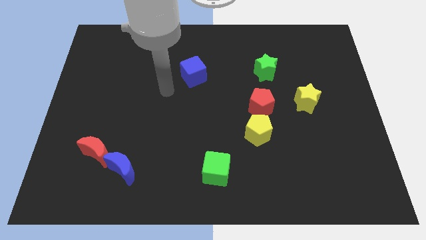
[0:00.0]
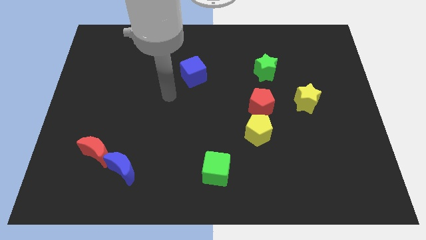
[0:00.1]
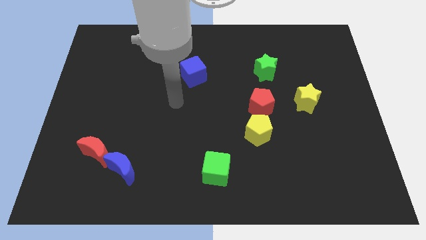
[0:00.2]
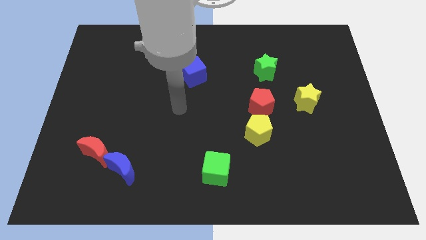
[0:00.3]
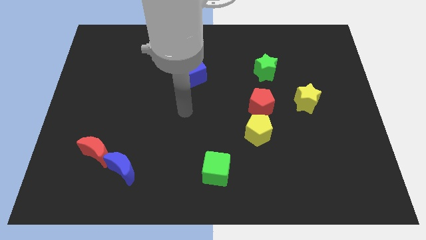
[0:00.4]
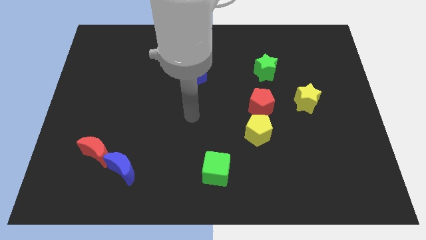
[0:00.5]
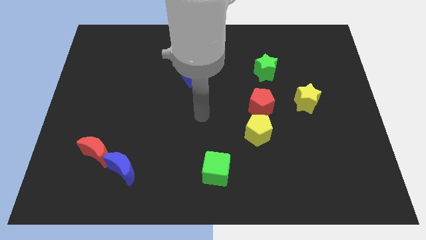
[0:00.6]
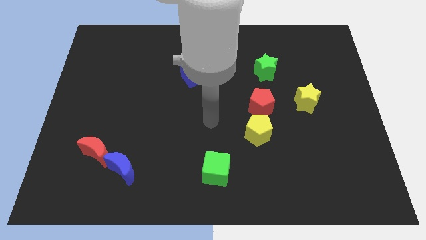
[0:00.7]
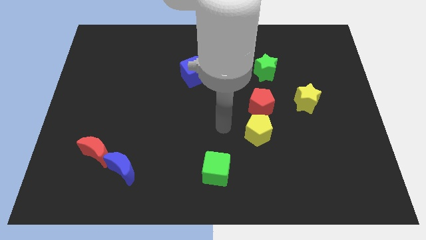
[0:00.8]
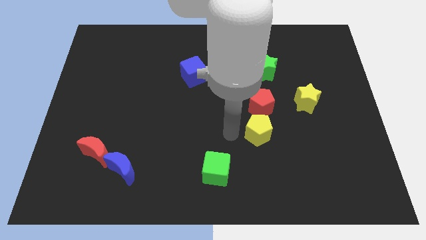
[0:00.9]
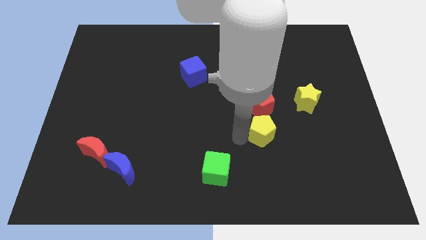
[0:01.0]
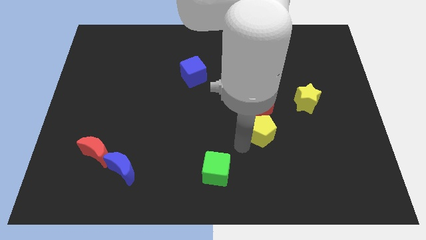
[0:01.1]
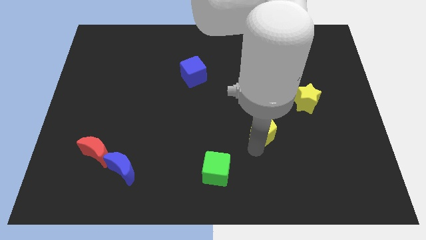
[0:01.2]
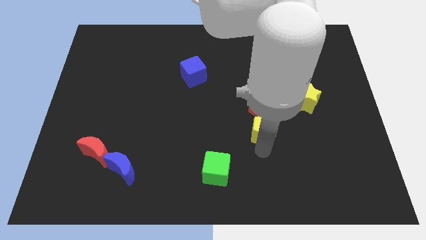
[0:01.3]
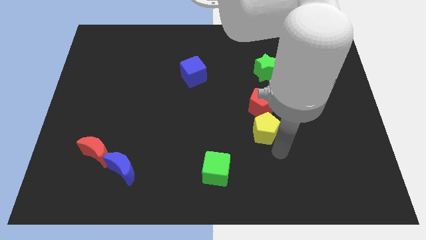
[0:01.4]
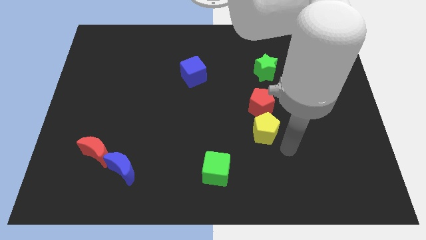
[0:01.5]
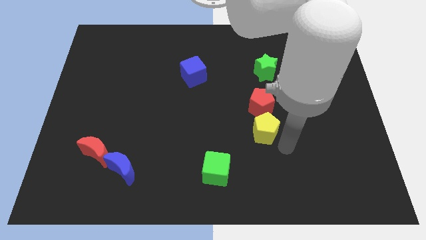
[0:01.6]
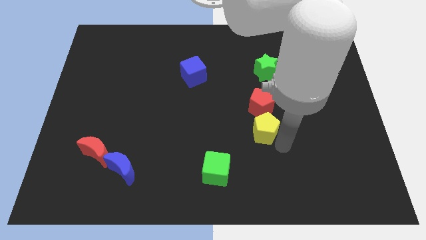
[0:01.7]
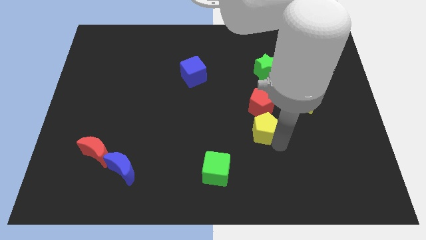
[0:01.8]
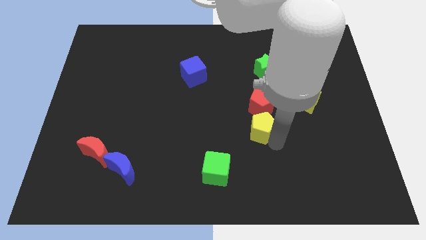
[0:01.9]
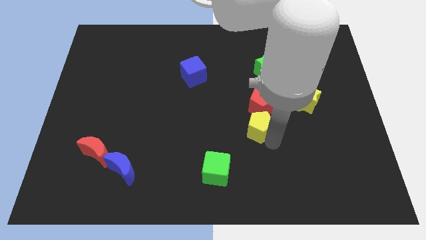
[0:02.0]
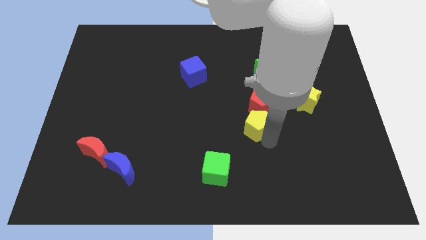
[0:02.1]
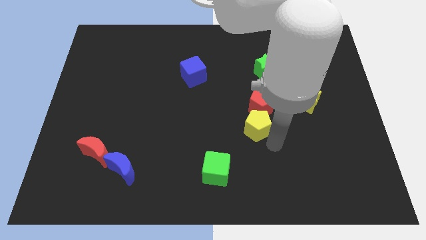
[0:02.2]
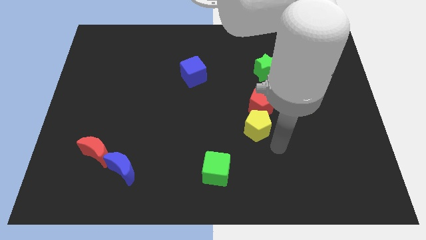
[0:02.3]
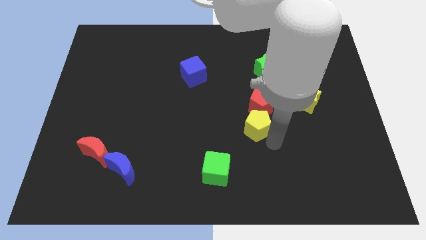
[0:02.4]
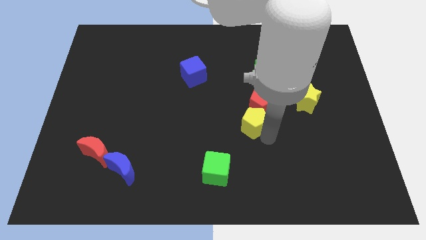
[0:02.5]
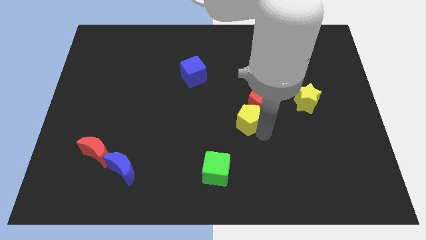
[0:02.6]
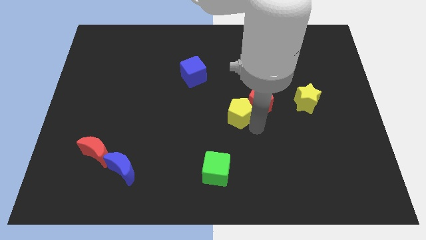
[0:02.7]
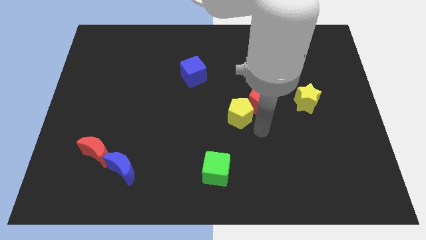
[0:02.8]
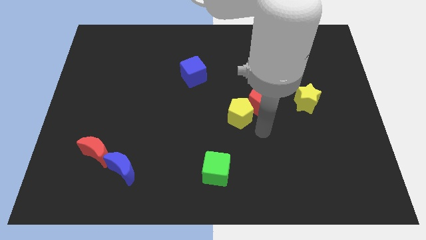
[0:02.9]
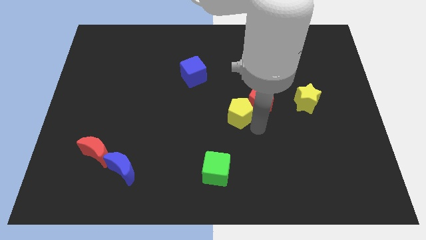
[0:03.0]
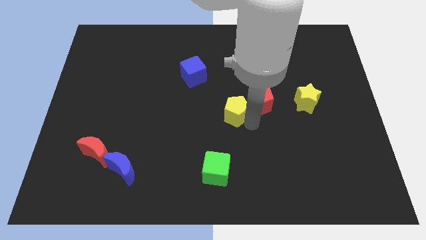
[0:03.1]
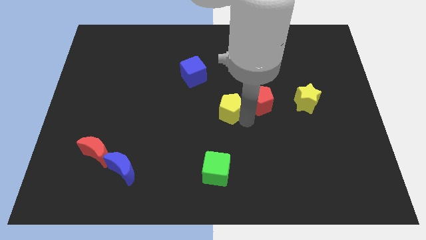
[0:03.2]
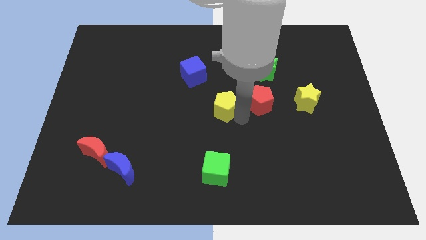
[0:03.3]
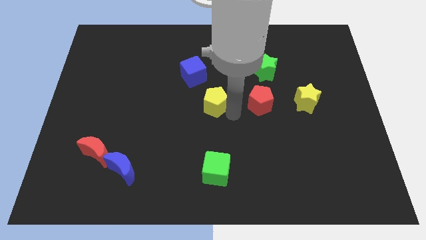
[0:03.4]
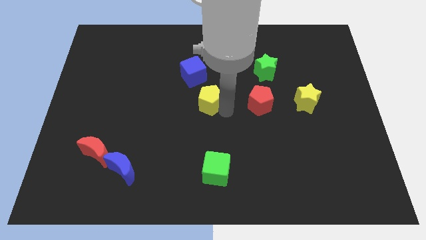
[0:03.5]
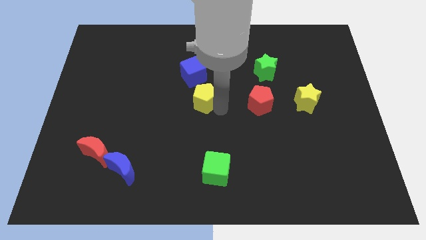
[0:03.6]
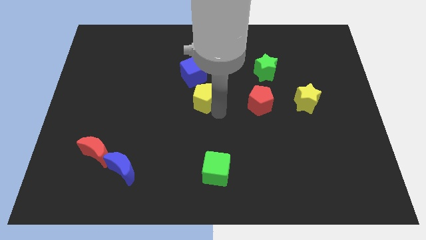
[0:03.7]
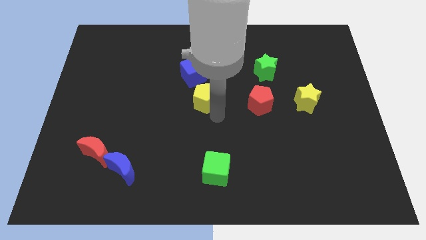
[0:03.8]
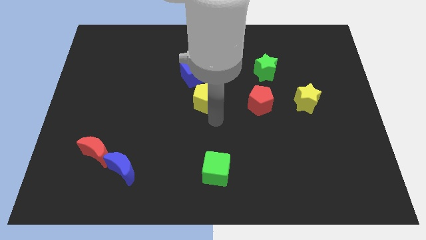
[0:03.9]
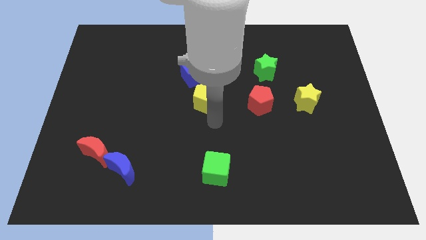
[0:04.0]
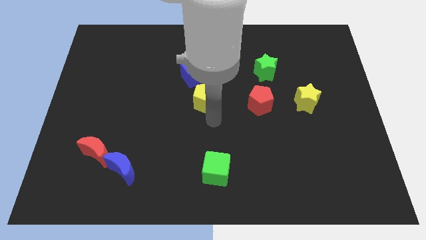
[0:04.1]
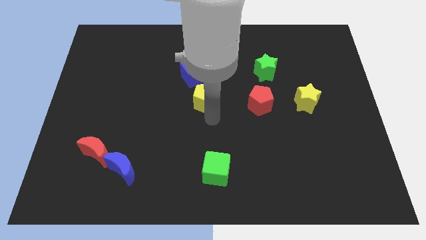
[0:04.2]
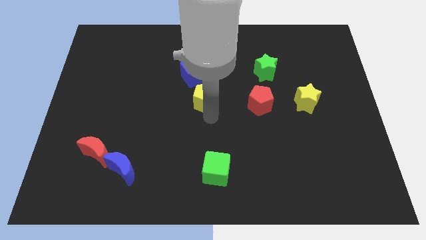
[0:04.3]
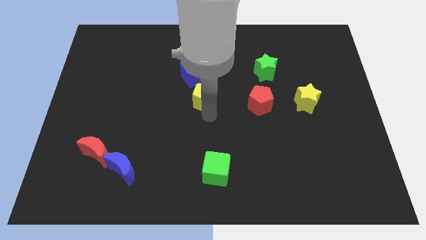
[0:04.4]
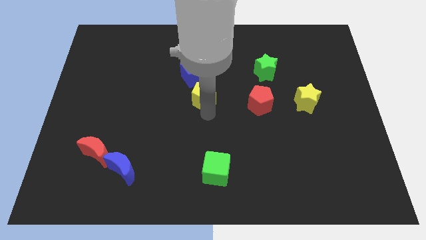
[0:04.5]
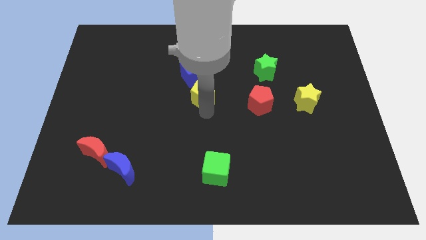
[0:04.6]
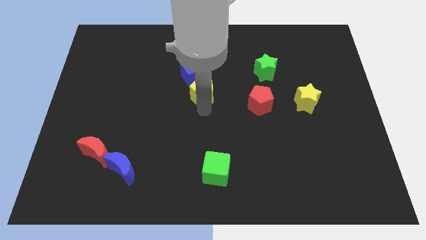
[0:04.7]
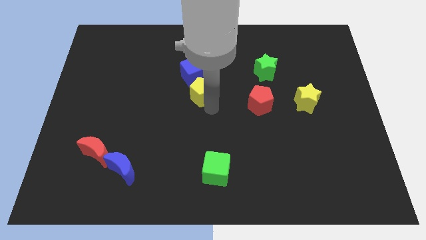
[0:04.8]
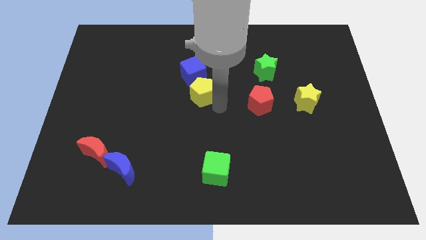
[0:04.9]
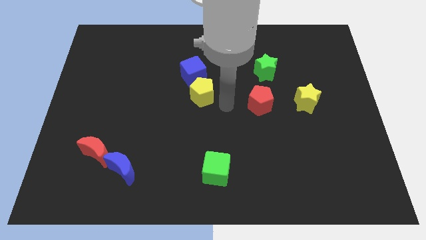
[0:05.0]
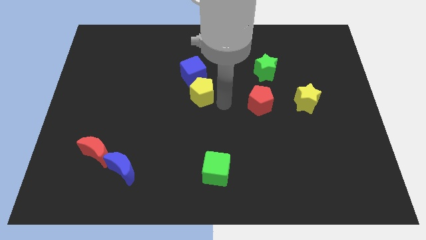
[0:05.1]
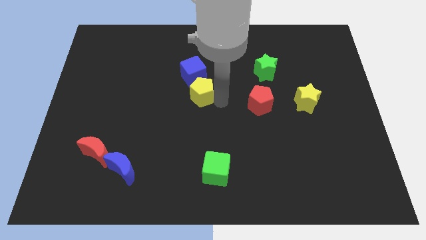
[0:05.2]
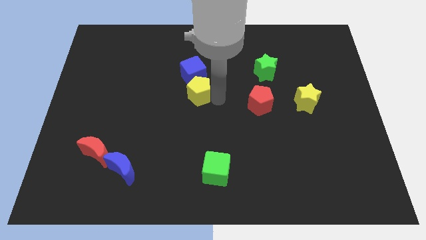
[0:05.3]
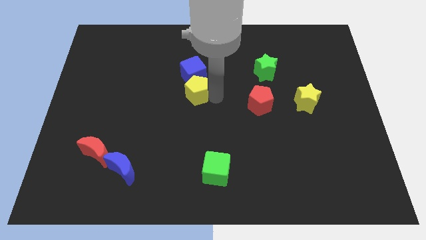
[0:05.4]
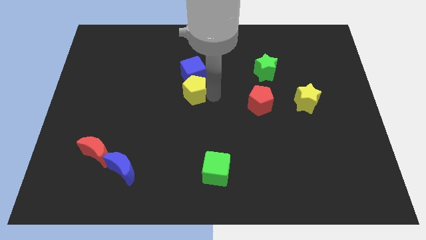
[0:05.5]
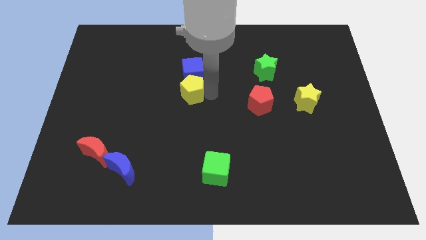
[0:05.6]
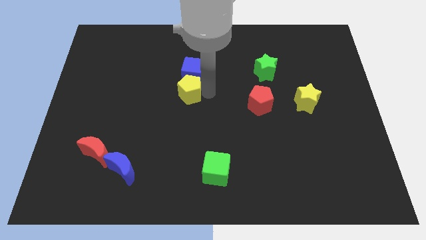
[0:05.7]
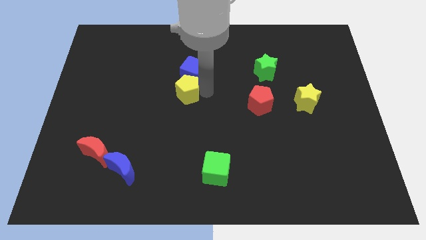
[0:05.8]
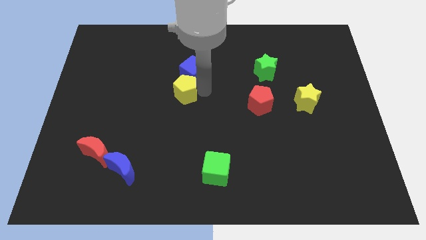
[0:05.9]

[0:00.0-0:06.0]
push the yellow pentagon up and to the left

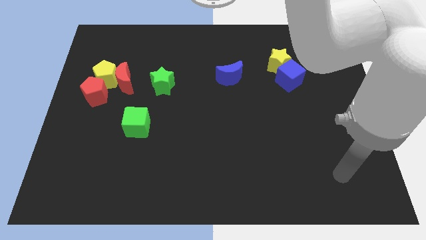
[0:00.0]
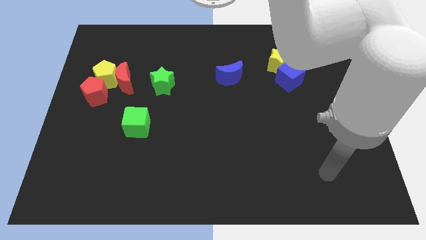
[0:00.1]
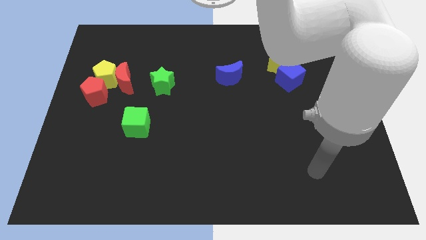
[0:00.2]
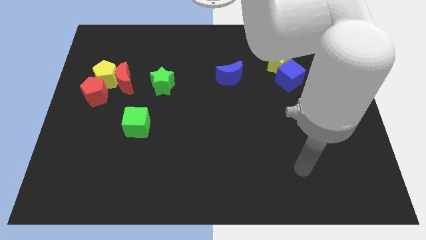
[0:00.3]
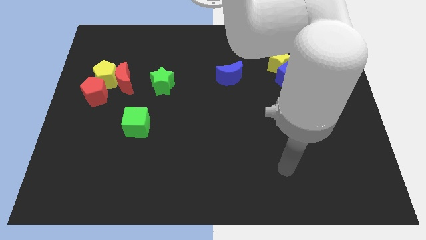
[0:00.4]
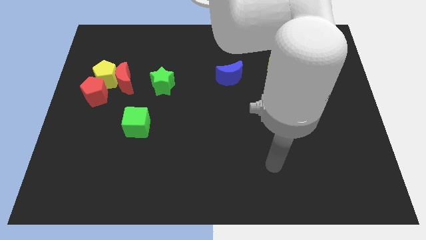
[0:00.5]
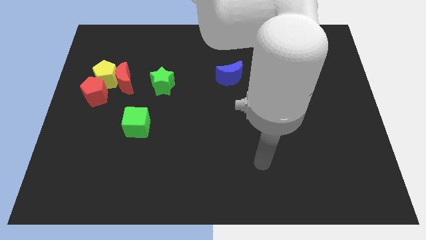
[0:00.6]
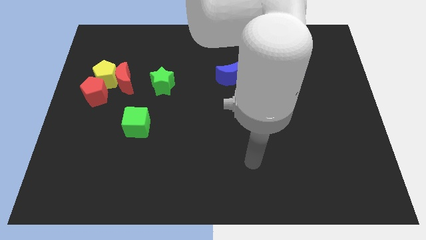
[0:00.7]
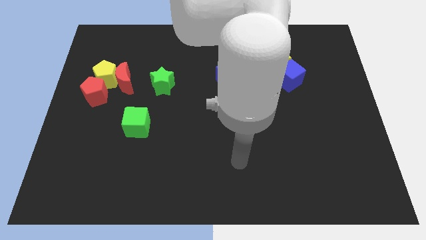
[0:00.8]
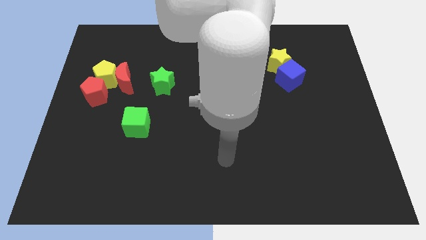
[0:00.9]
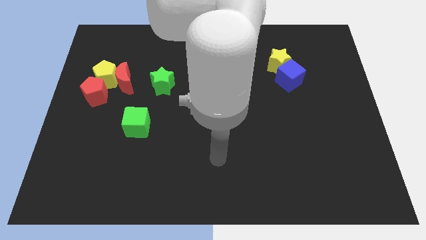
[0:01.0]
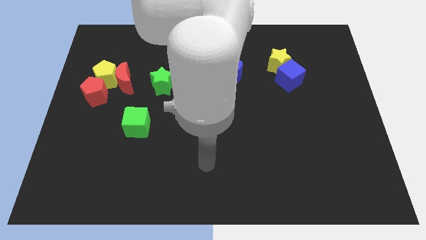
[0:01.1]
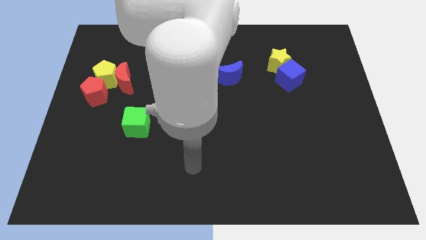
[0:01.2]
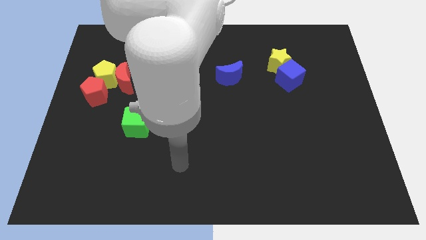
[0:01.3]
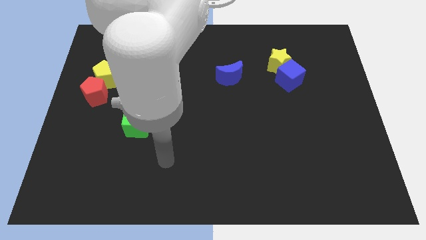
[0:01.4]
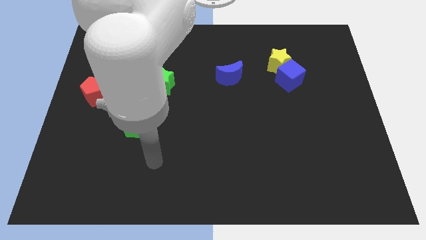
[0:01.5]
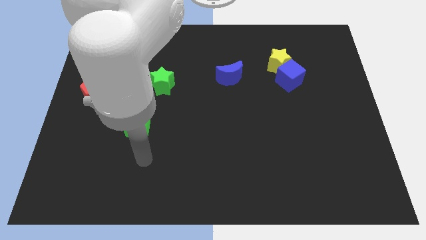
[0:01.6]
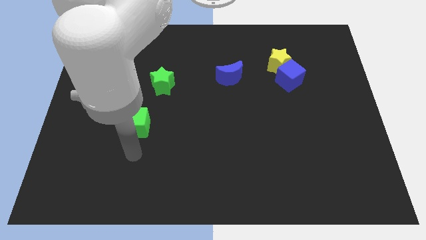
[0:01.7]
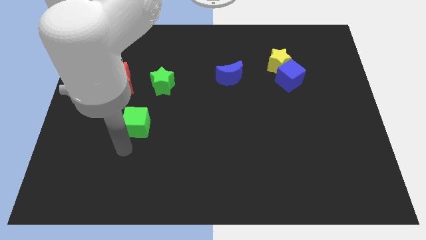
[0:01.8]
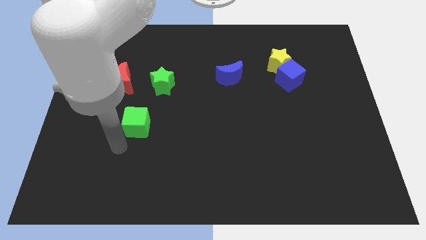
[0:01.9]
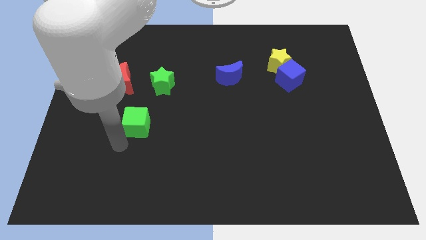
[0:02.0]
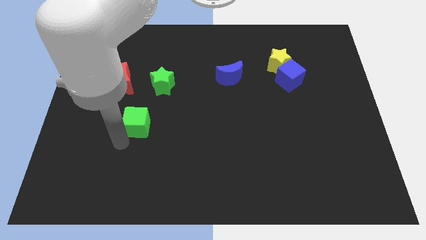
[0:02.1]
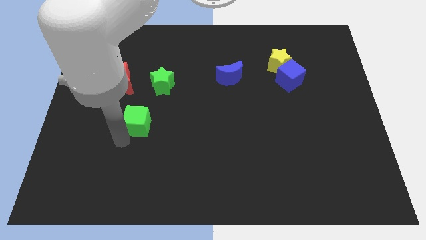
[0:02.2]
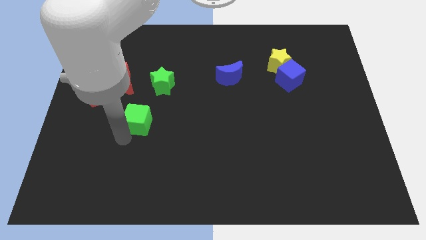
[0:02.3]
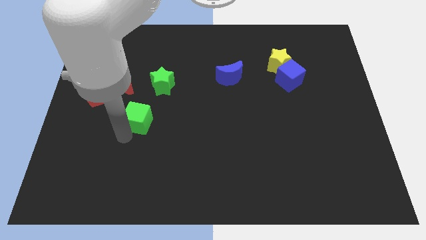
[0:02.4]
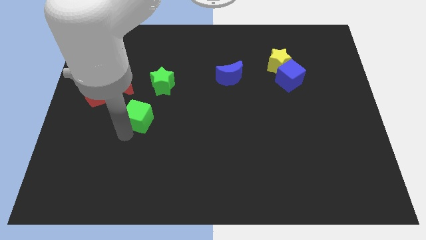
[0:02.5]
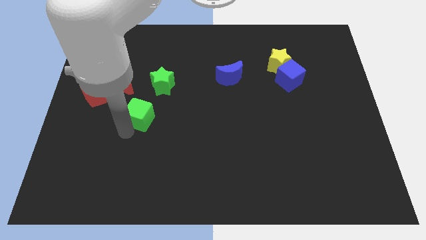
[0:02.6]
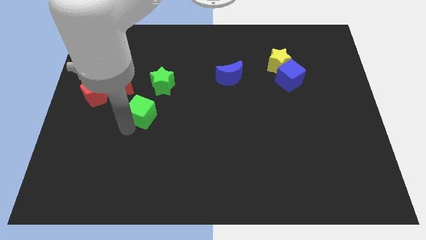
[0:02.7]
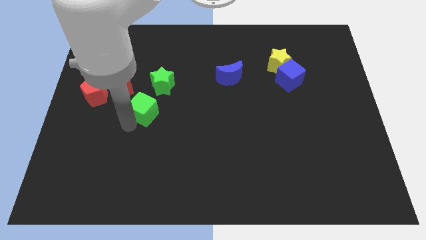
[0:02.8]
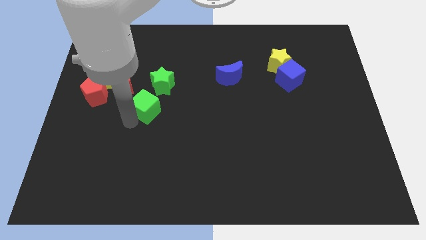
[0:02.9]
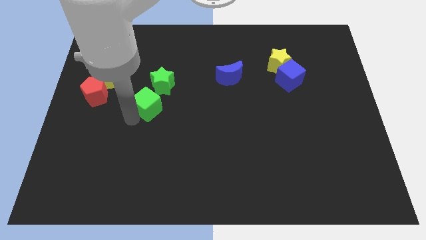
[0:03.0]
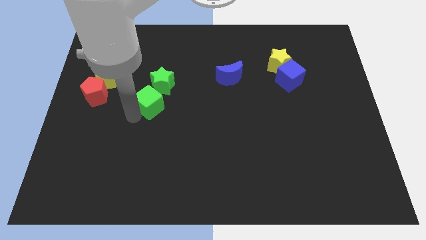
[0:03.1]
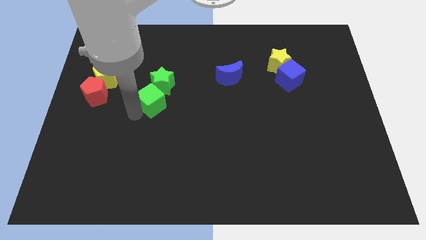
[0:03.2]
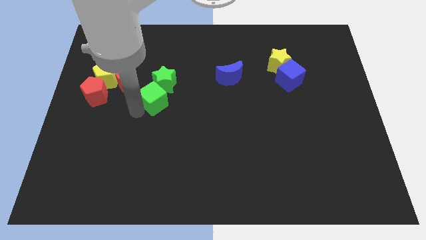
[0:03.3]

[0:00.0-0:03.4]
push the green cube a bit upwards and then right
